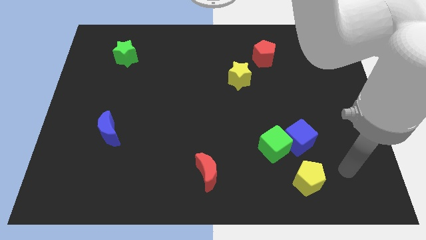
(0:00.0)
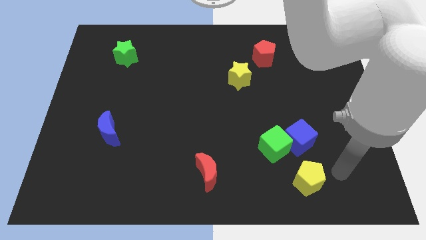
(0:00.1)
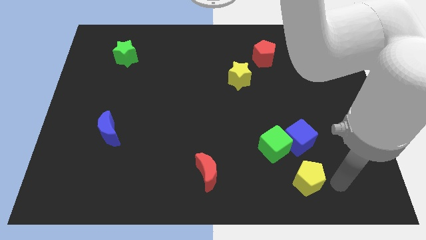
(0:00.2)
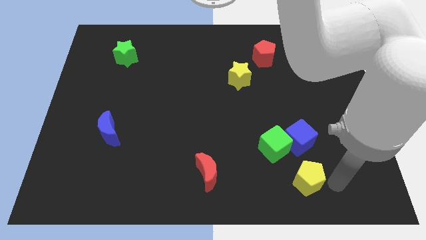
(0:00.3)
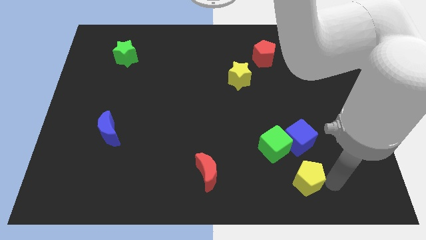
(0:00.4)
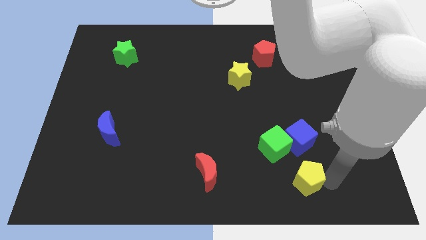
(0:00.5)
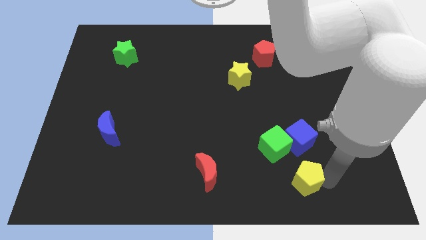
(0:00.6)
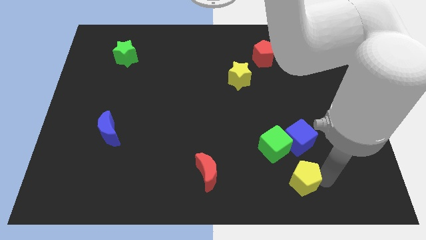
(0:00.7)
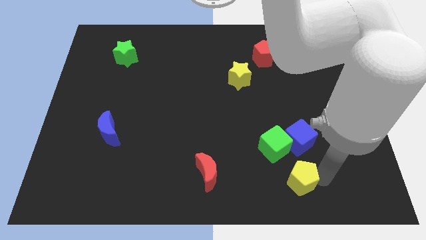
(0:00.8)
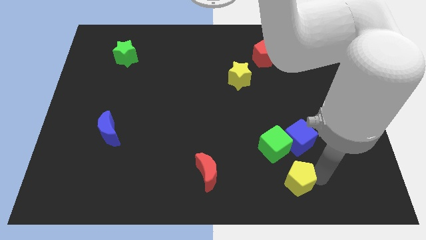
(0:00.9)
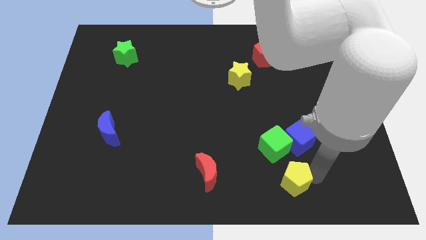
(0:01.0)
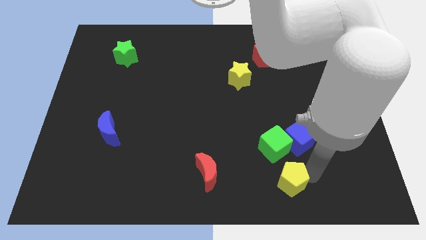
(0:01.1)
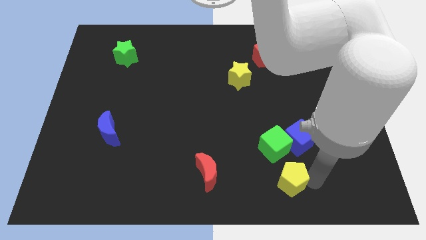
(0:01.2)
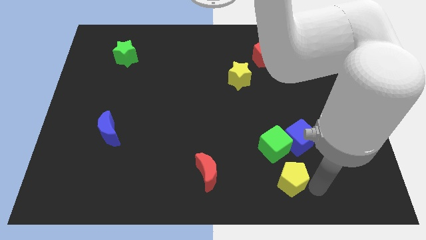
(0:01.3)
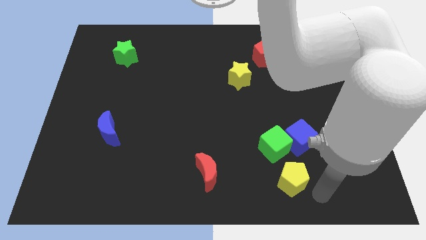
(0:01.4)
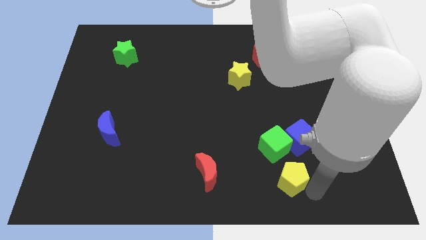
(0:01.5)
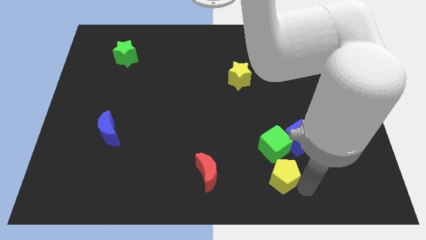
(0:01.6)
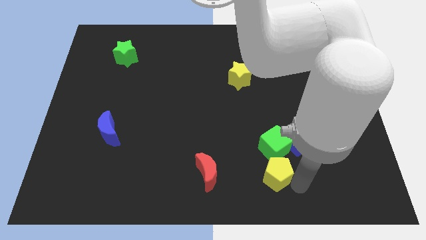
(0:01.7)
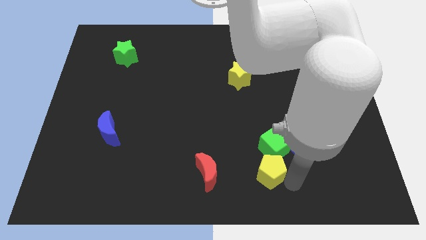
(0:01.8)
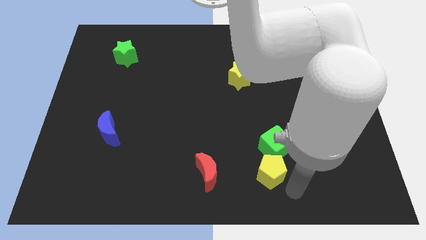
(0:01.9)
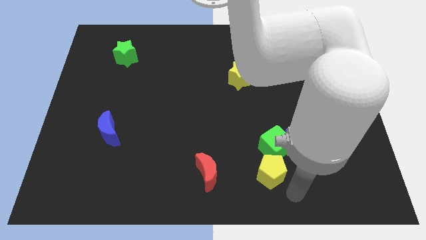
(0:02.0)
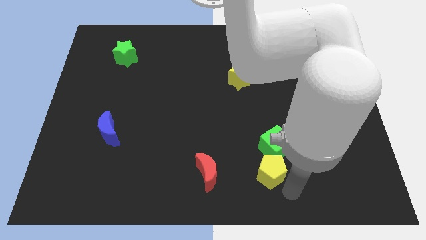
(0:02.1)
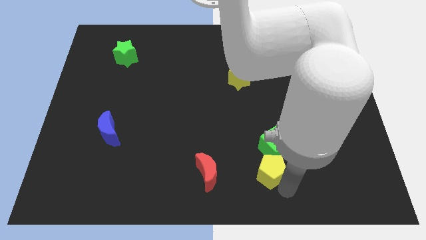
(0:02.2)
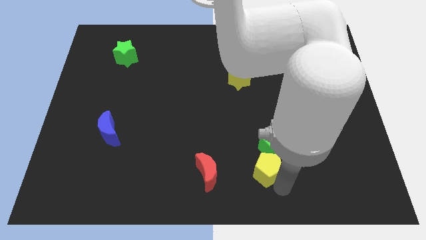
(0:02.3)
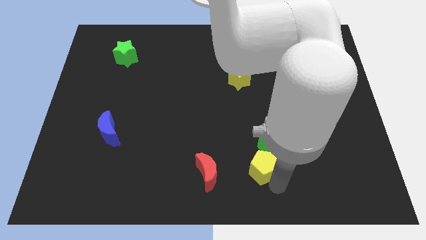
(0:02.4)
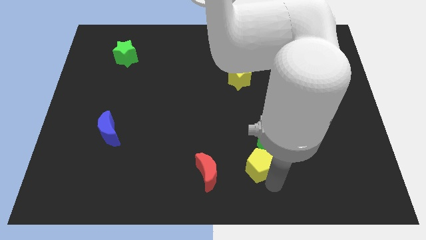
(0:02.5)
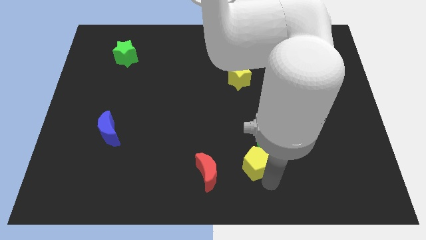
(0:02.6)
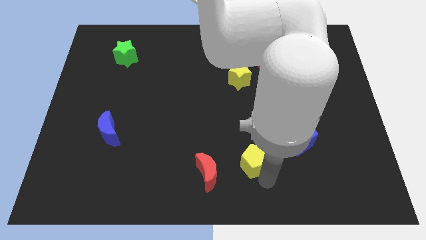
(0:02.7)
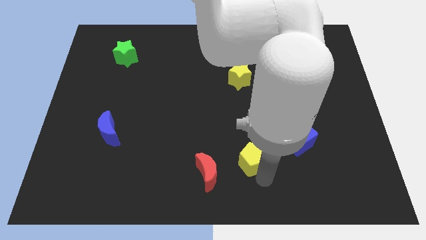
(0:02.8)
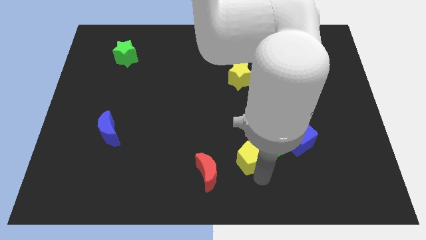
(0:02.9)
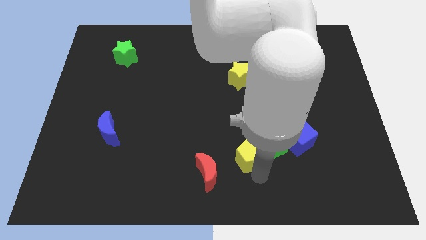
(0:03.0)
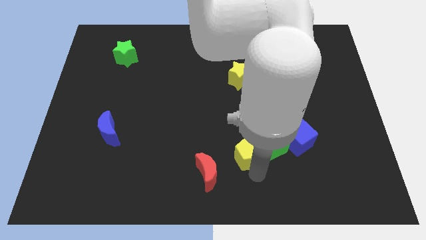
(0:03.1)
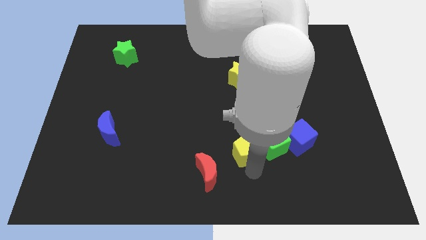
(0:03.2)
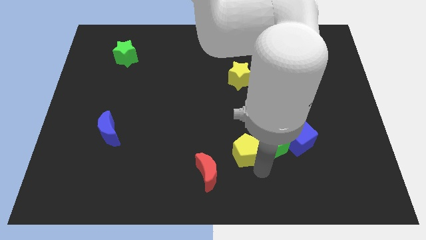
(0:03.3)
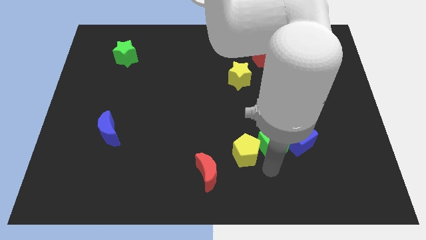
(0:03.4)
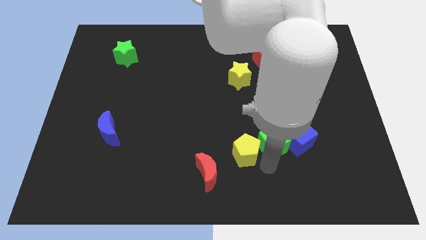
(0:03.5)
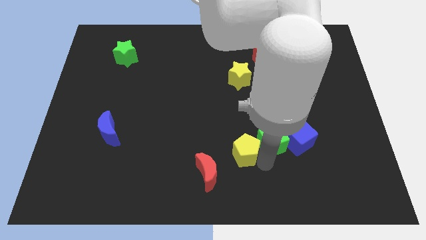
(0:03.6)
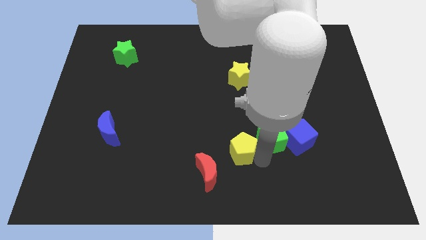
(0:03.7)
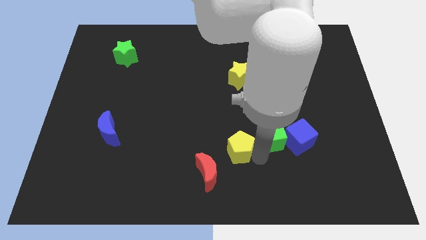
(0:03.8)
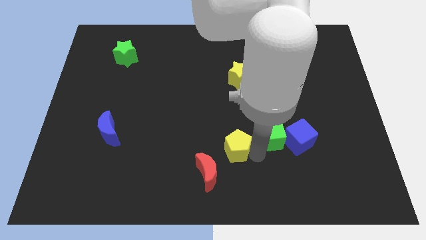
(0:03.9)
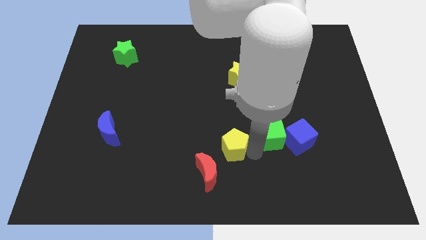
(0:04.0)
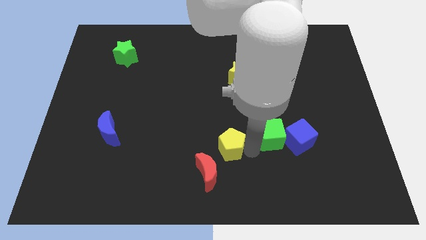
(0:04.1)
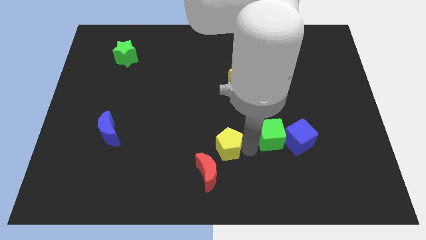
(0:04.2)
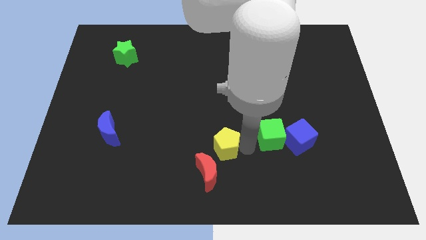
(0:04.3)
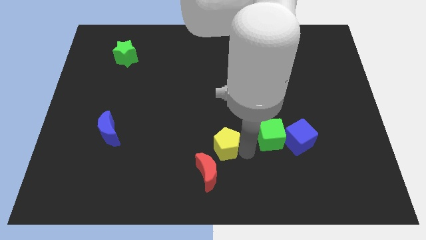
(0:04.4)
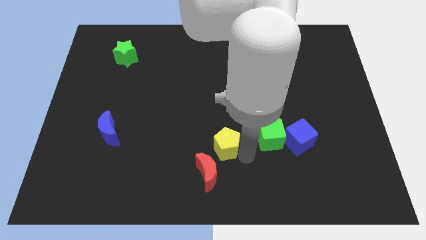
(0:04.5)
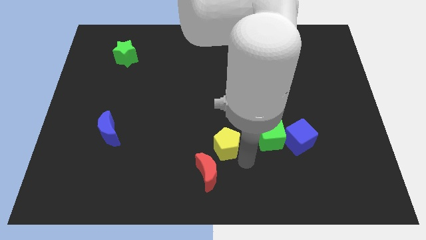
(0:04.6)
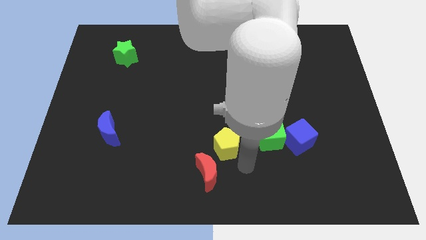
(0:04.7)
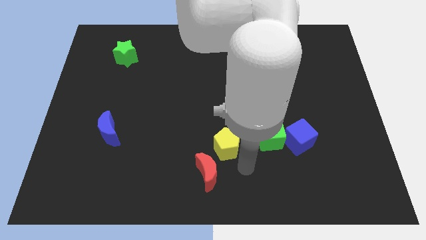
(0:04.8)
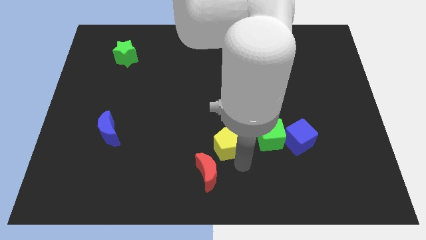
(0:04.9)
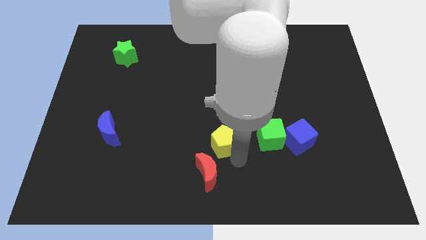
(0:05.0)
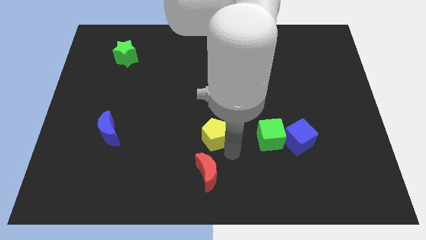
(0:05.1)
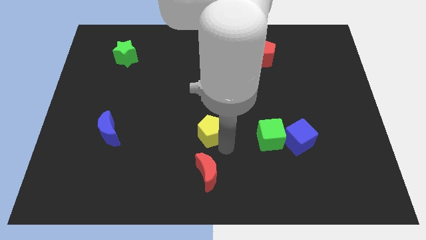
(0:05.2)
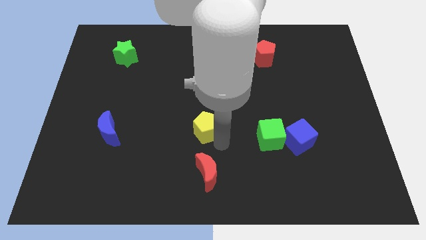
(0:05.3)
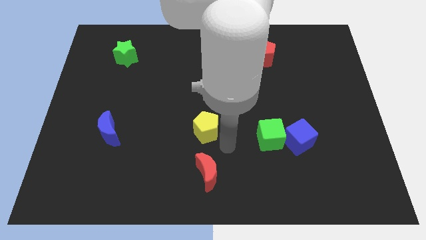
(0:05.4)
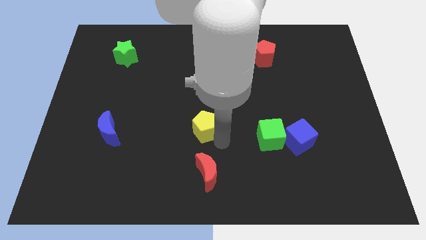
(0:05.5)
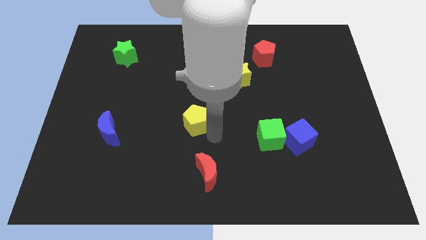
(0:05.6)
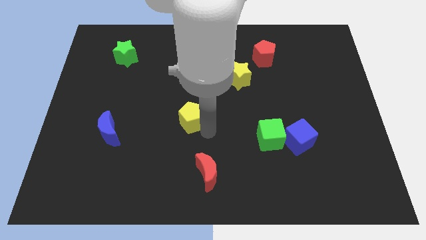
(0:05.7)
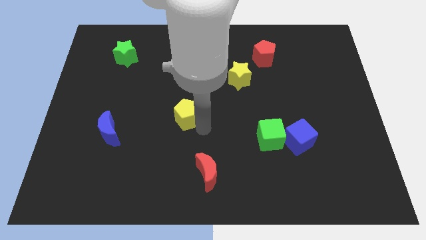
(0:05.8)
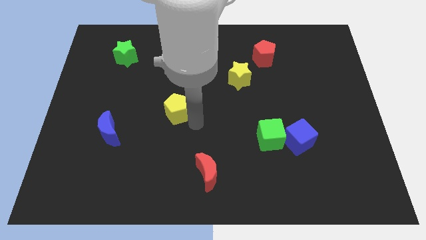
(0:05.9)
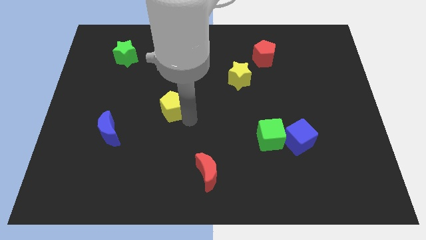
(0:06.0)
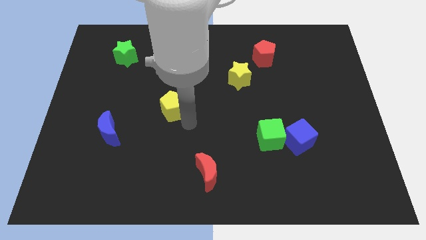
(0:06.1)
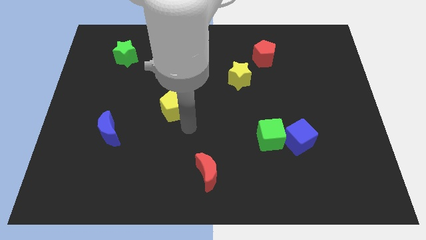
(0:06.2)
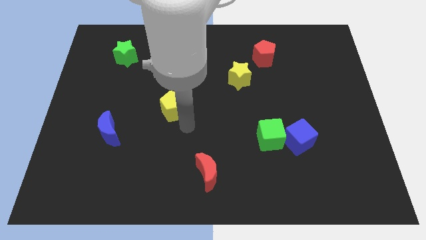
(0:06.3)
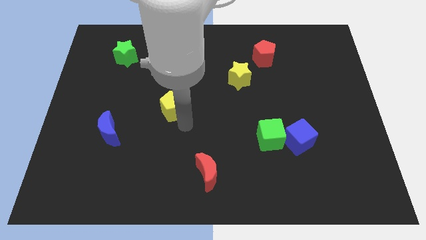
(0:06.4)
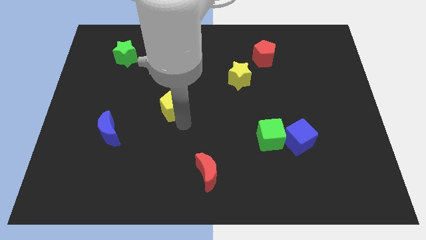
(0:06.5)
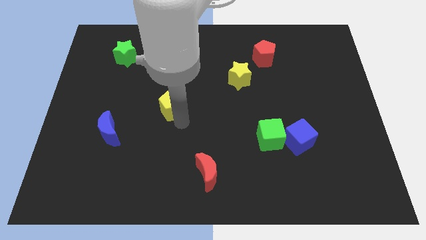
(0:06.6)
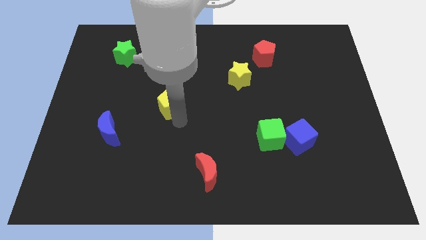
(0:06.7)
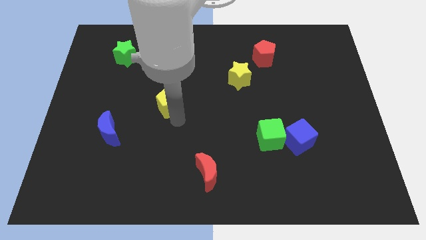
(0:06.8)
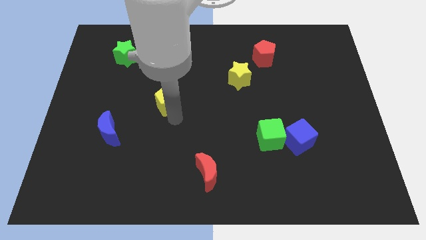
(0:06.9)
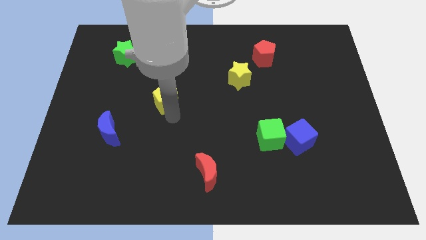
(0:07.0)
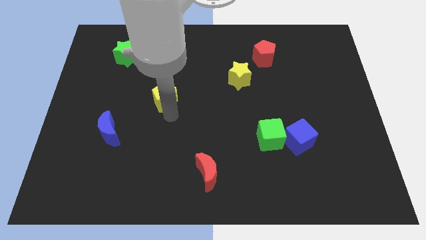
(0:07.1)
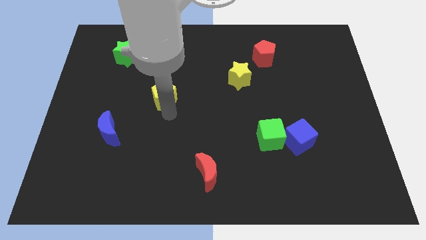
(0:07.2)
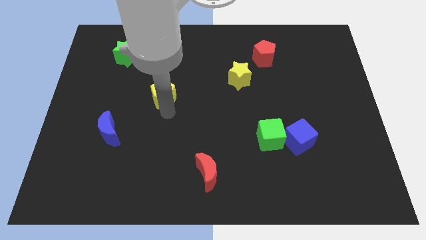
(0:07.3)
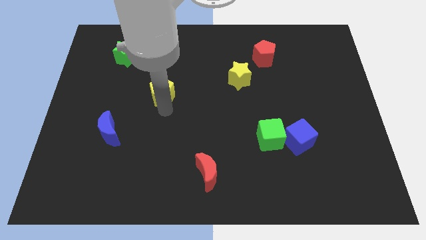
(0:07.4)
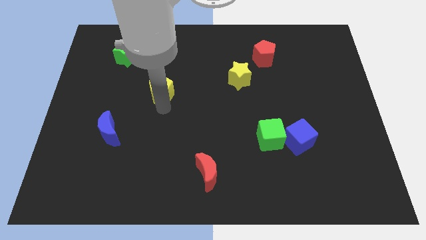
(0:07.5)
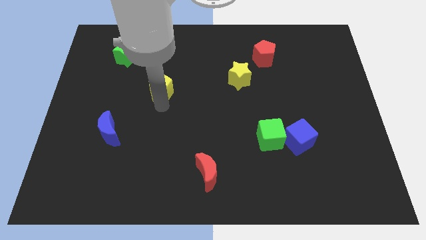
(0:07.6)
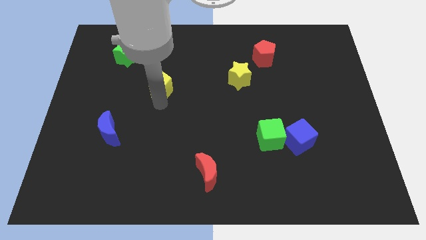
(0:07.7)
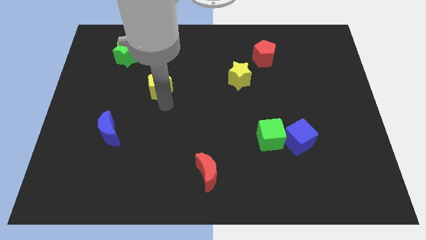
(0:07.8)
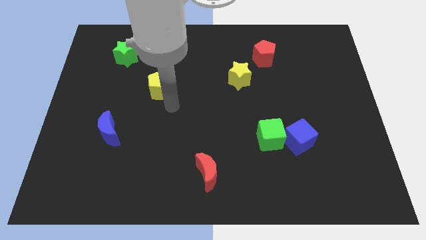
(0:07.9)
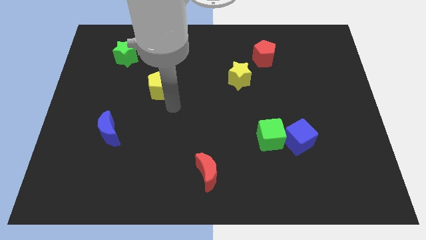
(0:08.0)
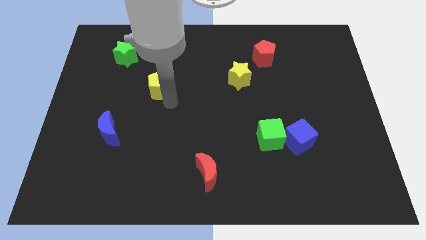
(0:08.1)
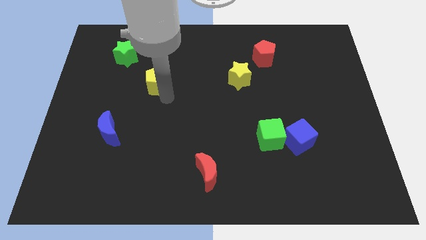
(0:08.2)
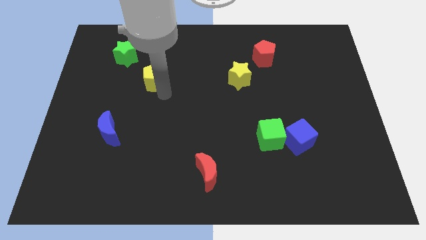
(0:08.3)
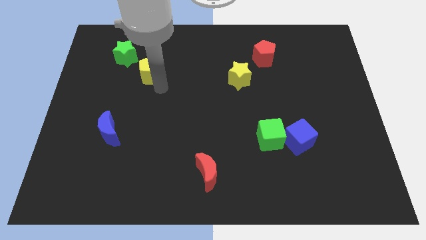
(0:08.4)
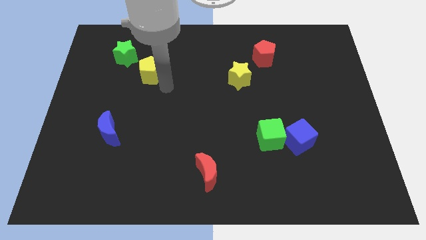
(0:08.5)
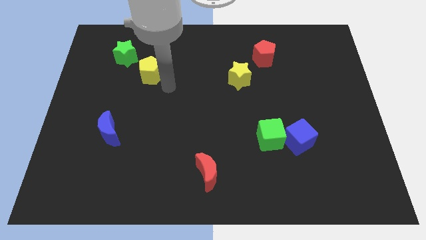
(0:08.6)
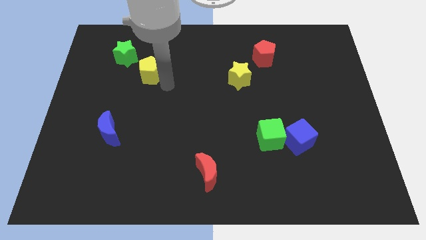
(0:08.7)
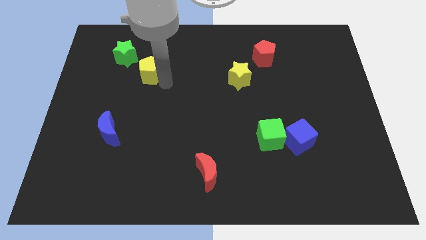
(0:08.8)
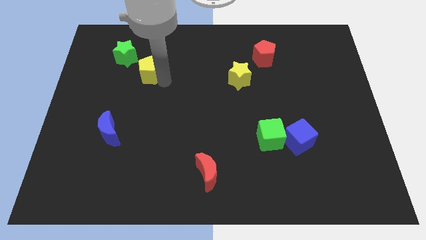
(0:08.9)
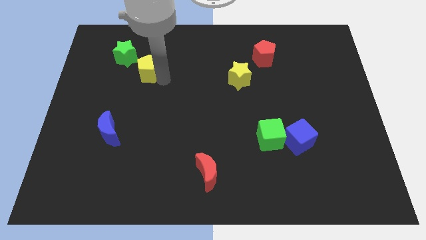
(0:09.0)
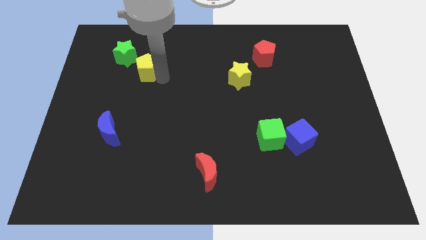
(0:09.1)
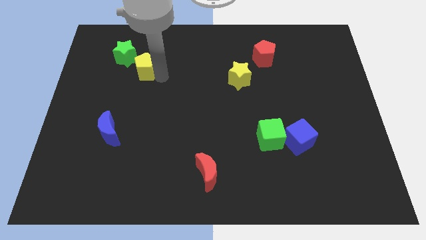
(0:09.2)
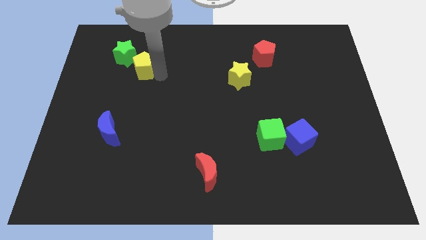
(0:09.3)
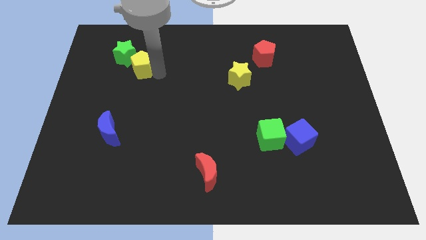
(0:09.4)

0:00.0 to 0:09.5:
move the yellow pentagon close to the green star
